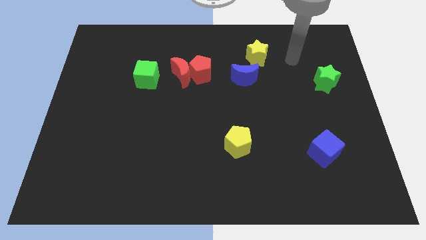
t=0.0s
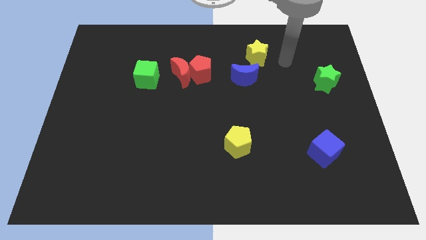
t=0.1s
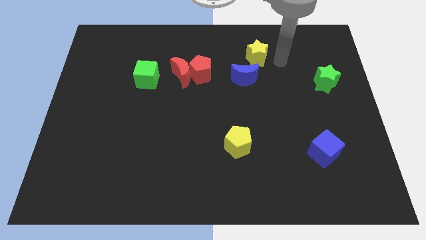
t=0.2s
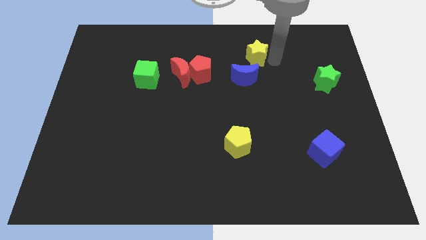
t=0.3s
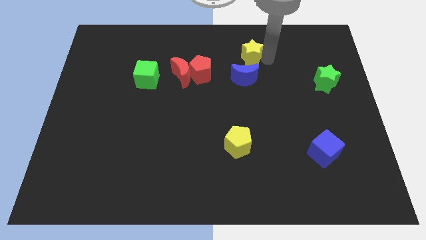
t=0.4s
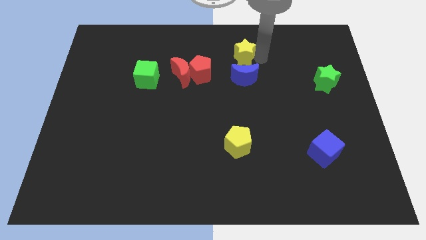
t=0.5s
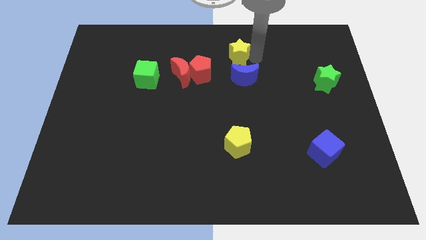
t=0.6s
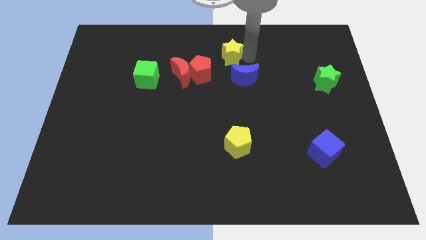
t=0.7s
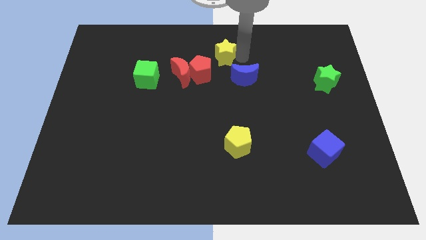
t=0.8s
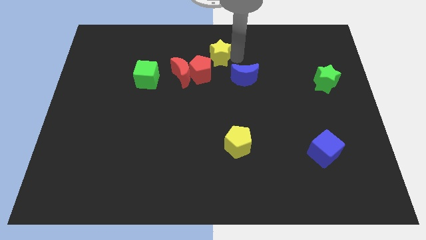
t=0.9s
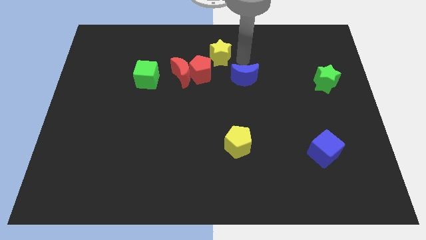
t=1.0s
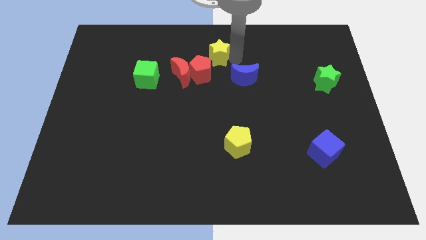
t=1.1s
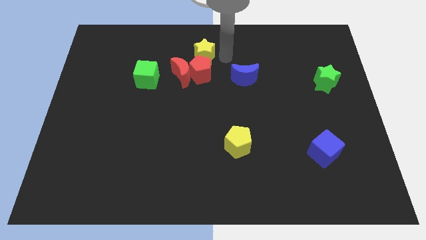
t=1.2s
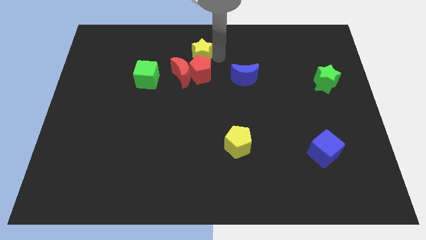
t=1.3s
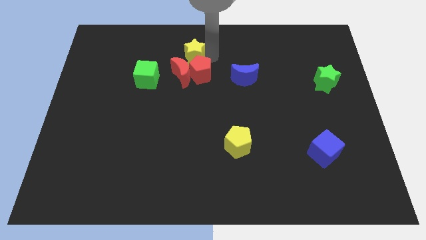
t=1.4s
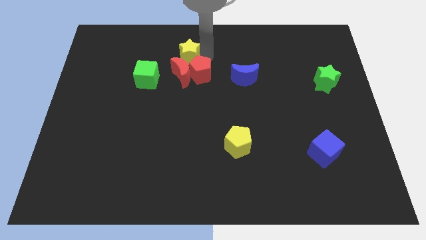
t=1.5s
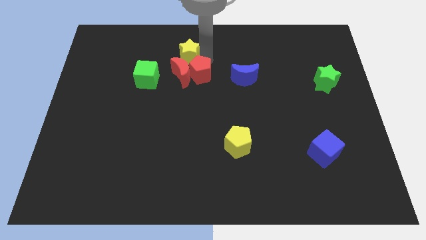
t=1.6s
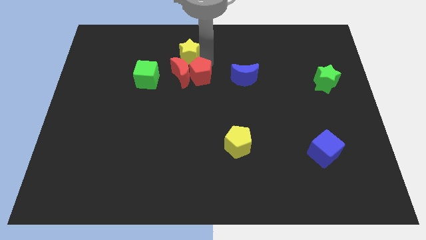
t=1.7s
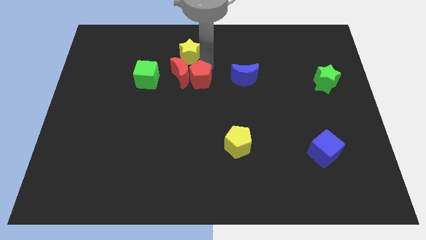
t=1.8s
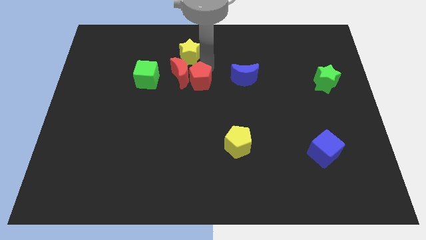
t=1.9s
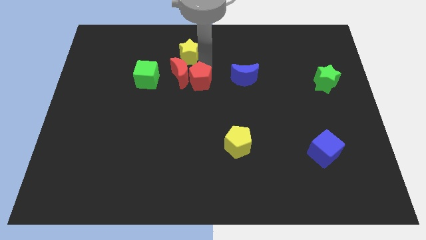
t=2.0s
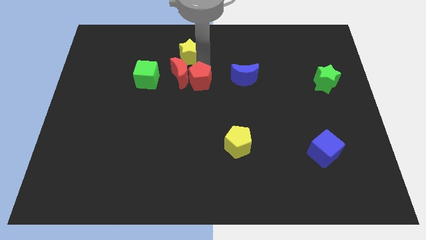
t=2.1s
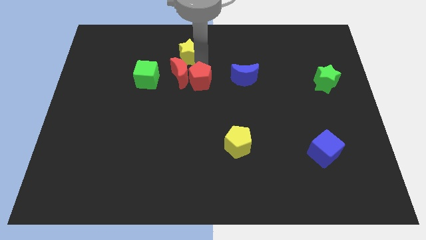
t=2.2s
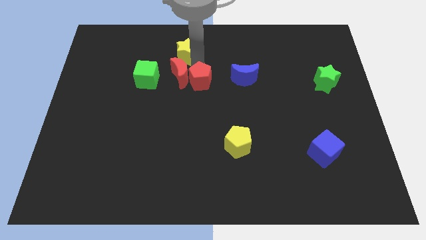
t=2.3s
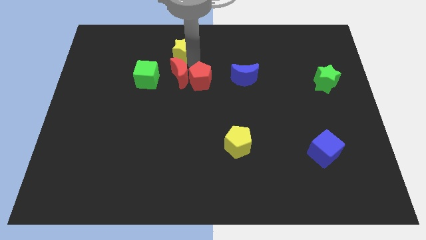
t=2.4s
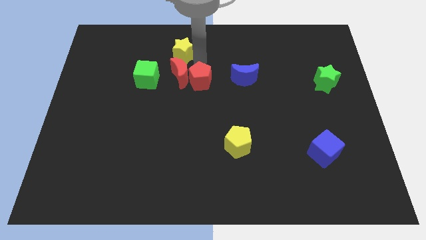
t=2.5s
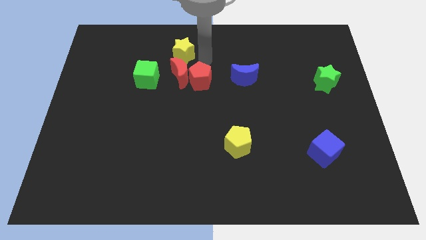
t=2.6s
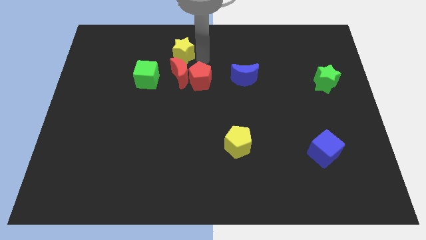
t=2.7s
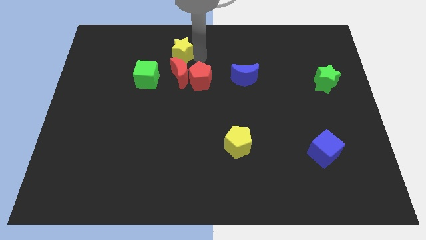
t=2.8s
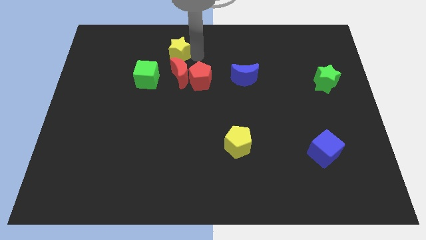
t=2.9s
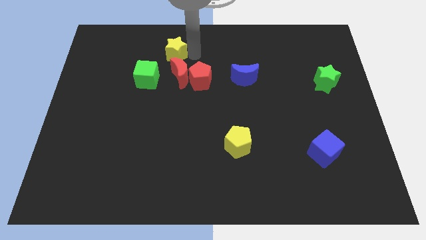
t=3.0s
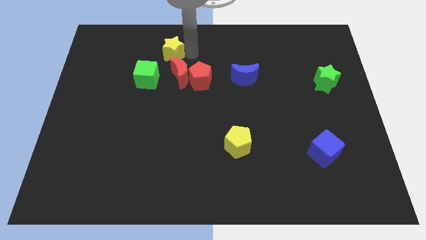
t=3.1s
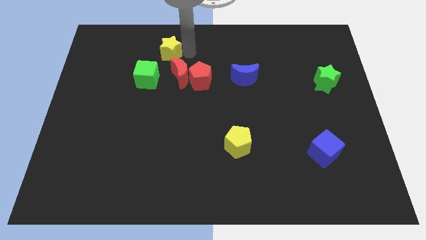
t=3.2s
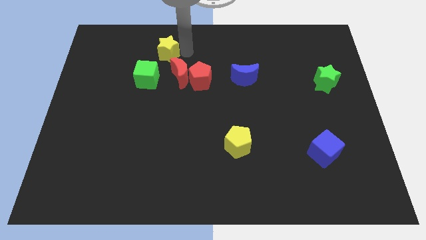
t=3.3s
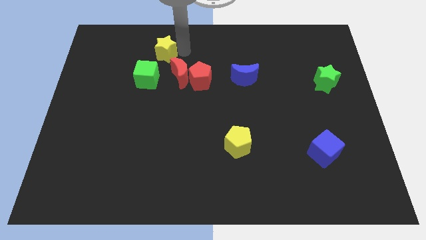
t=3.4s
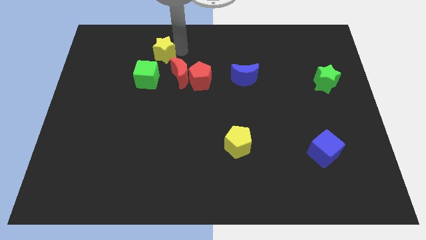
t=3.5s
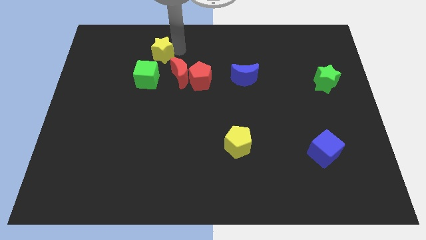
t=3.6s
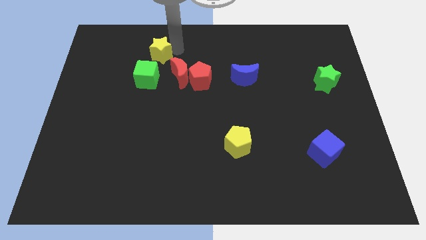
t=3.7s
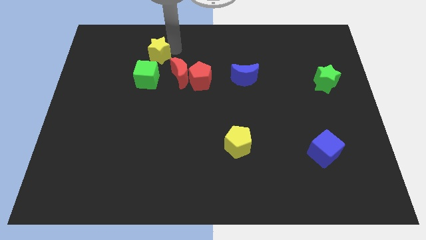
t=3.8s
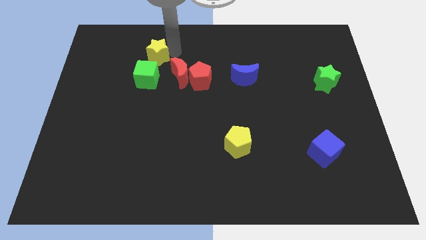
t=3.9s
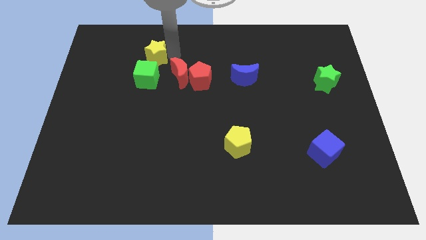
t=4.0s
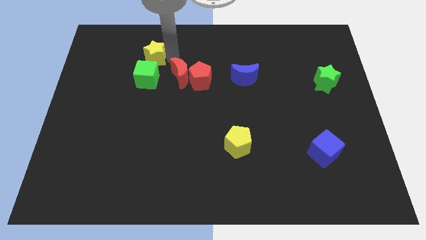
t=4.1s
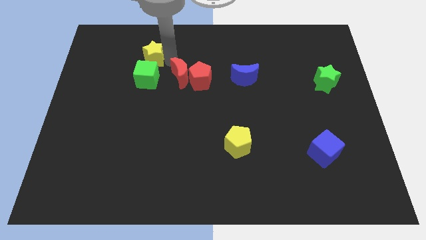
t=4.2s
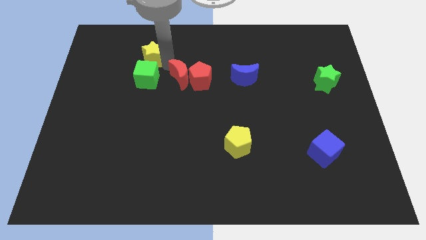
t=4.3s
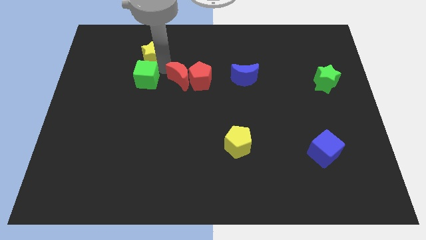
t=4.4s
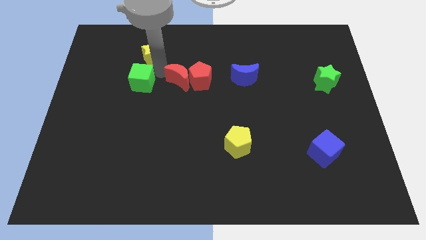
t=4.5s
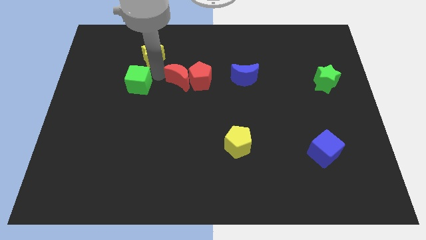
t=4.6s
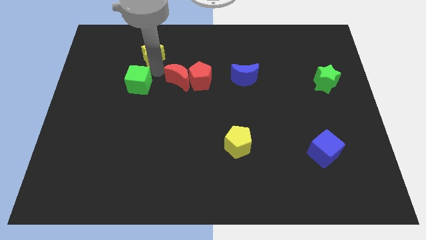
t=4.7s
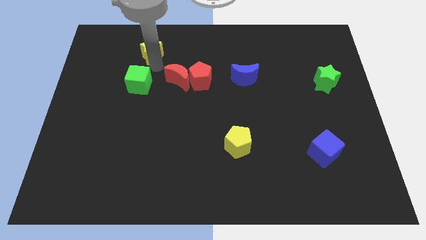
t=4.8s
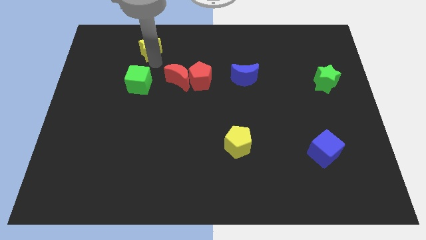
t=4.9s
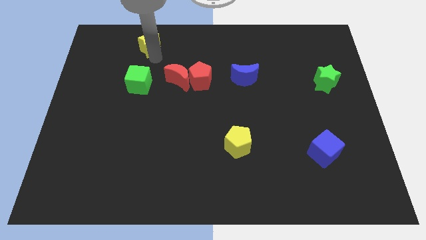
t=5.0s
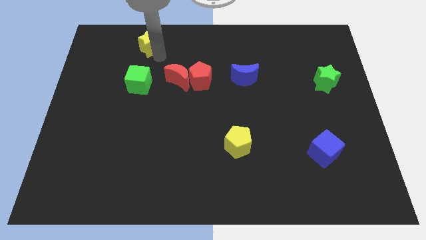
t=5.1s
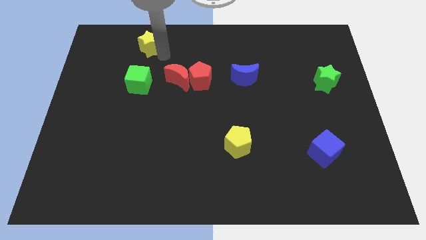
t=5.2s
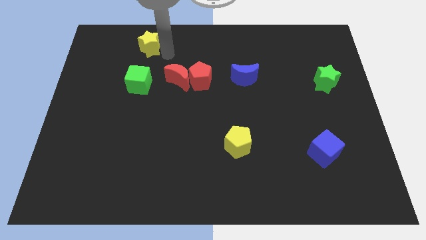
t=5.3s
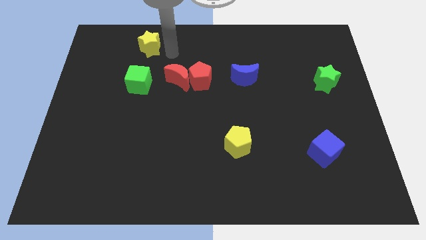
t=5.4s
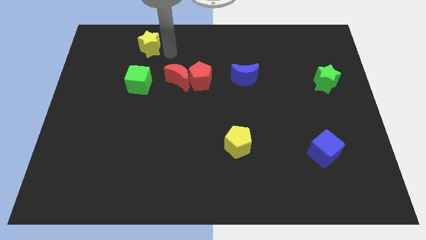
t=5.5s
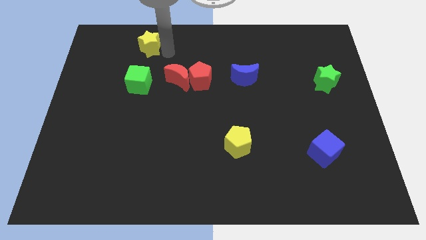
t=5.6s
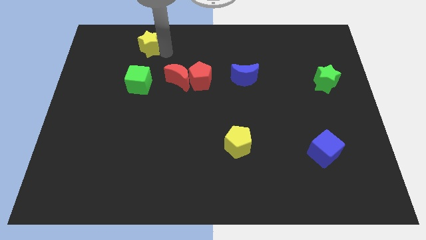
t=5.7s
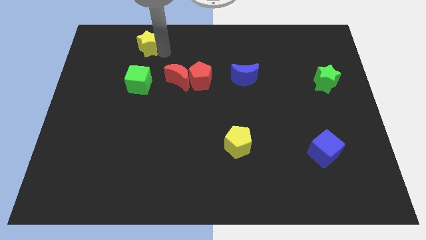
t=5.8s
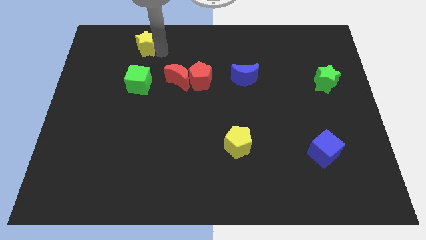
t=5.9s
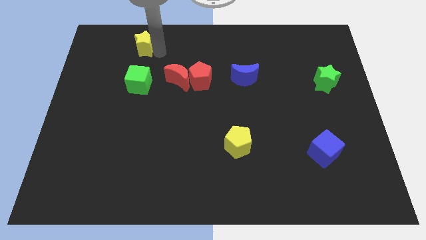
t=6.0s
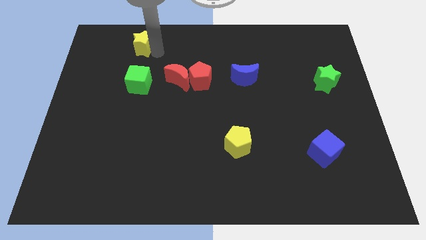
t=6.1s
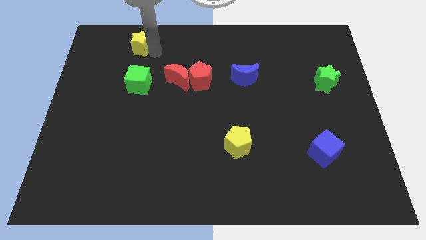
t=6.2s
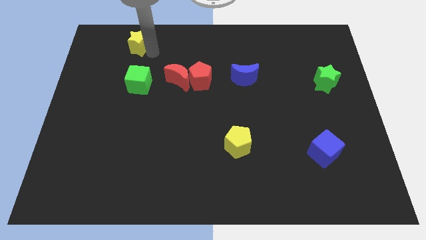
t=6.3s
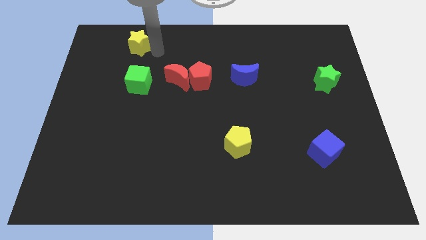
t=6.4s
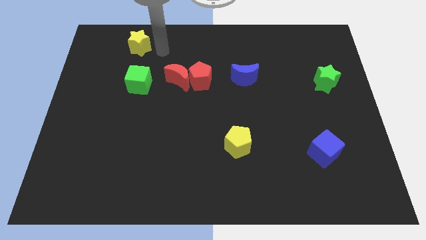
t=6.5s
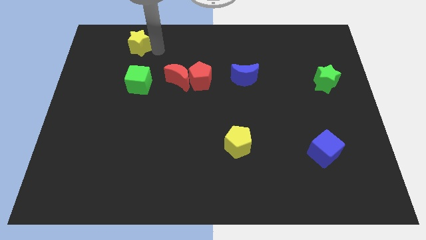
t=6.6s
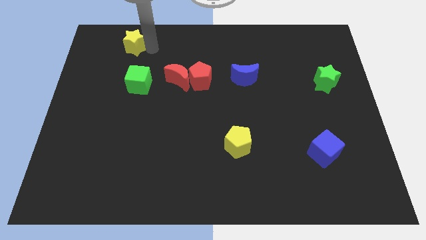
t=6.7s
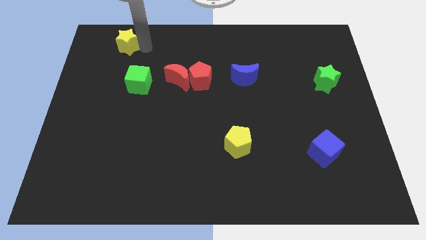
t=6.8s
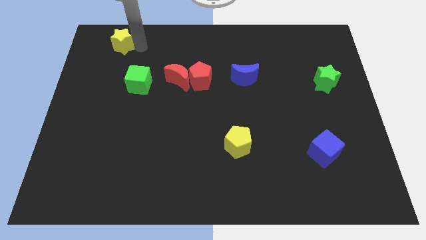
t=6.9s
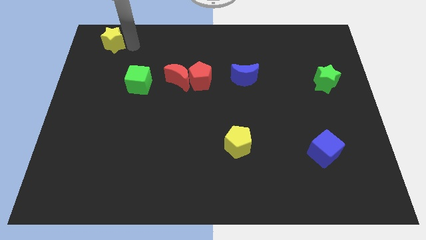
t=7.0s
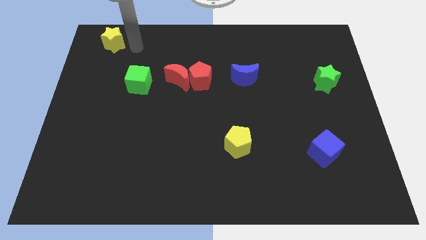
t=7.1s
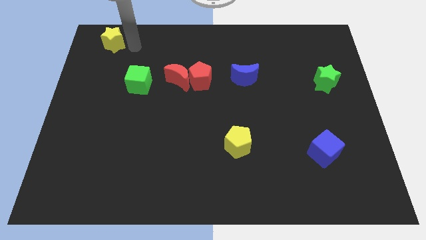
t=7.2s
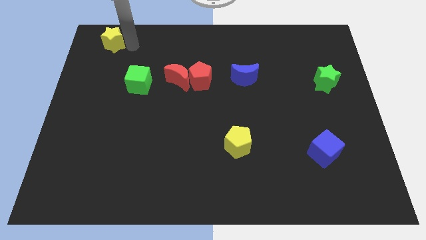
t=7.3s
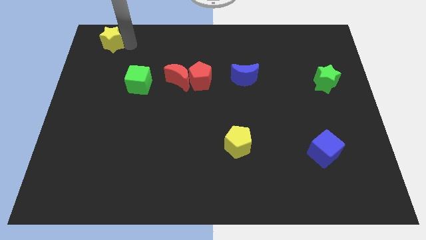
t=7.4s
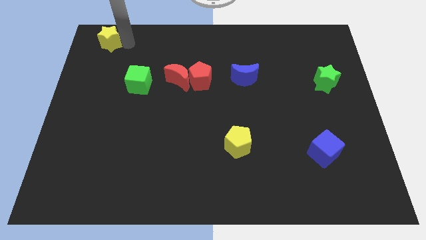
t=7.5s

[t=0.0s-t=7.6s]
push the yellow star to the top left
